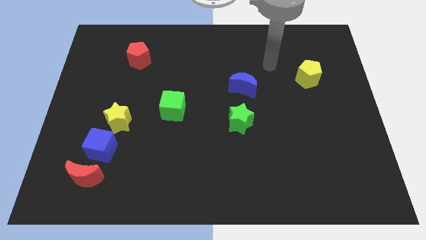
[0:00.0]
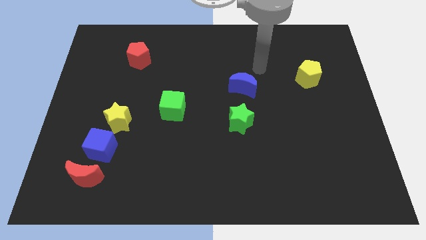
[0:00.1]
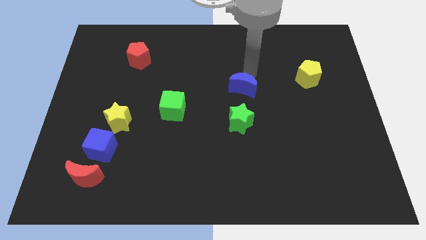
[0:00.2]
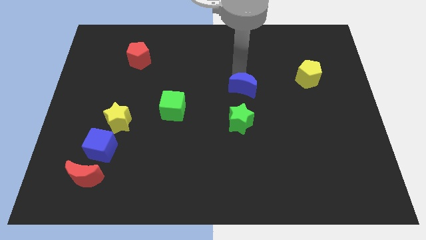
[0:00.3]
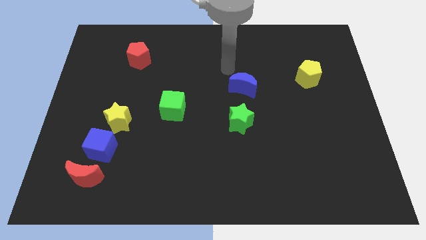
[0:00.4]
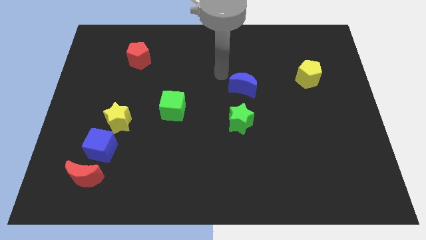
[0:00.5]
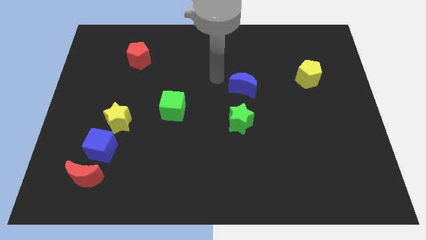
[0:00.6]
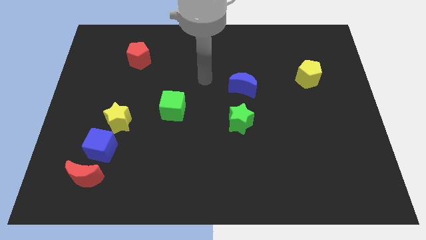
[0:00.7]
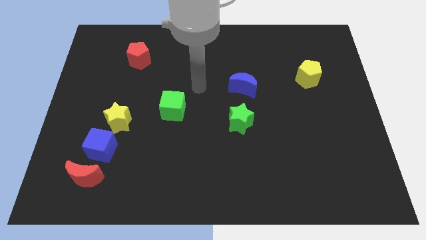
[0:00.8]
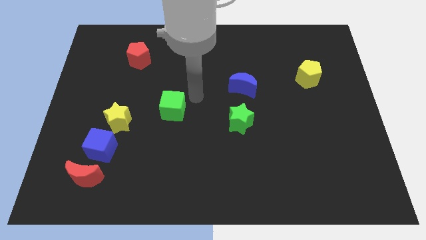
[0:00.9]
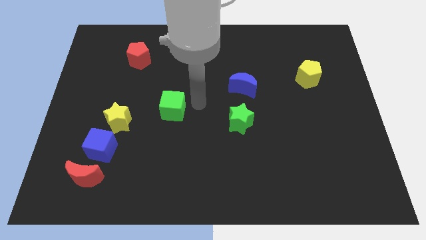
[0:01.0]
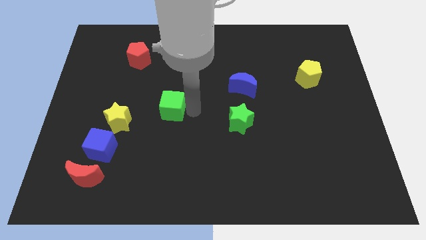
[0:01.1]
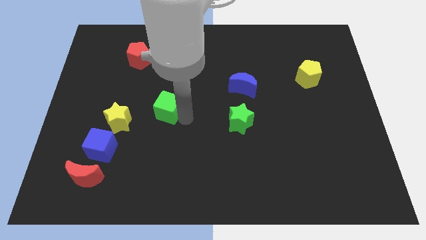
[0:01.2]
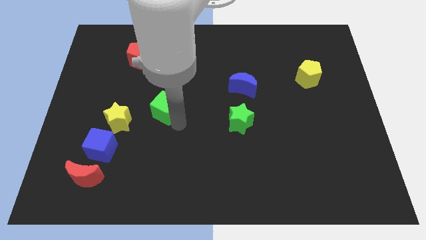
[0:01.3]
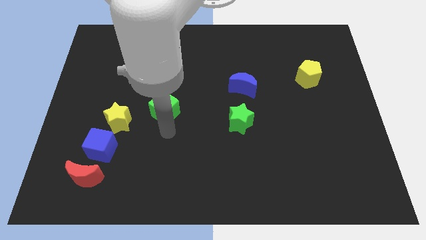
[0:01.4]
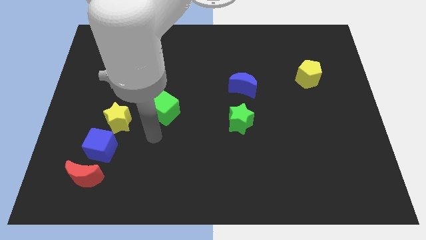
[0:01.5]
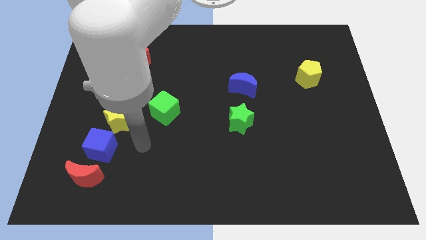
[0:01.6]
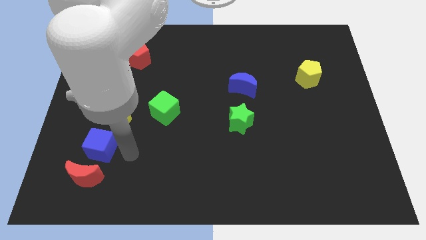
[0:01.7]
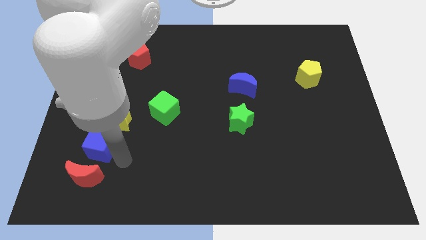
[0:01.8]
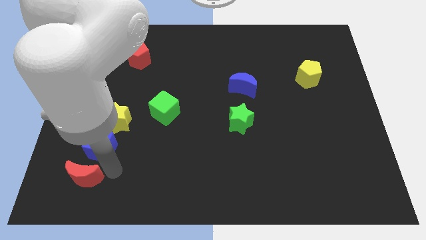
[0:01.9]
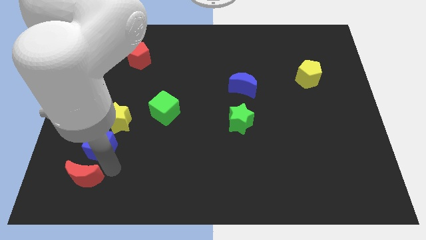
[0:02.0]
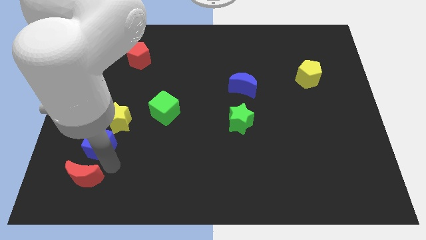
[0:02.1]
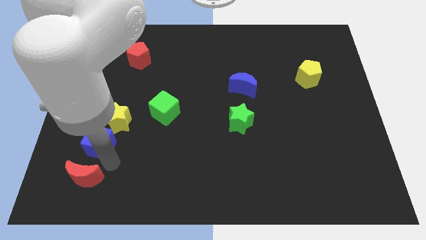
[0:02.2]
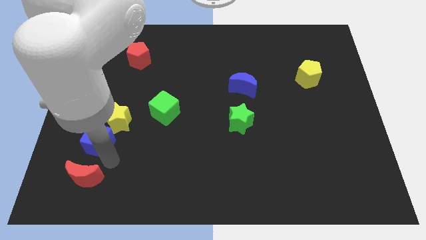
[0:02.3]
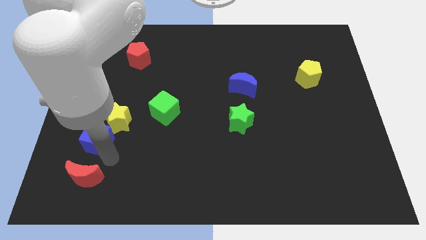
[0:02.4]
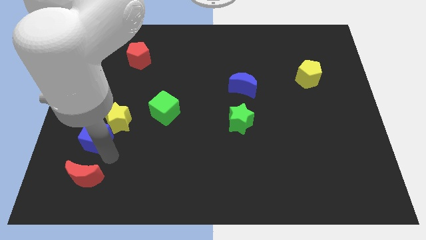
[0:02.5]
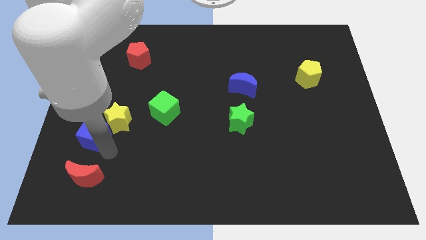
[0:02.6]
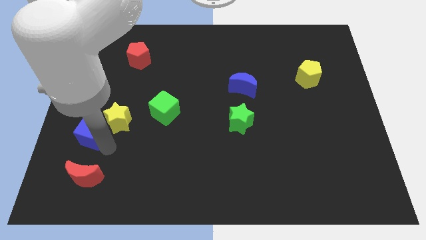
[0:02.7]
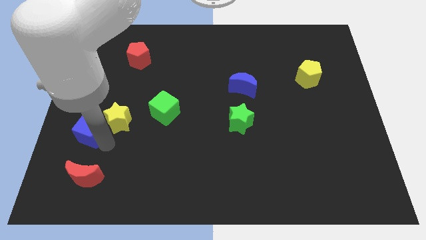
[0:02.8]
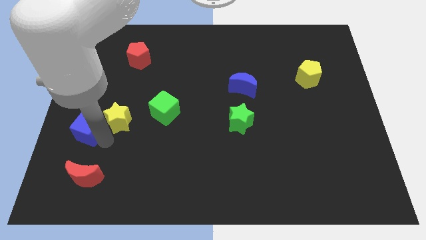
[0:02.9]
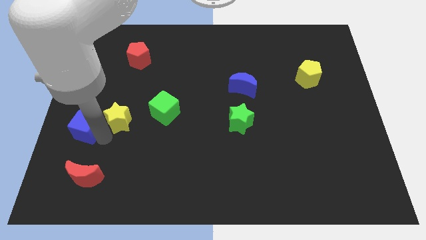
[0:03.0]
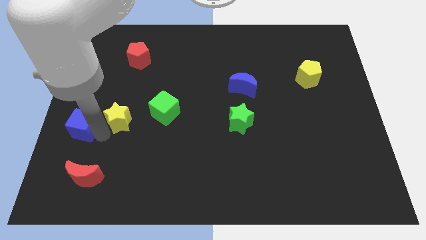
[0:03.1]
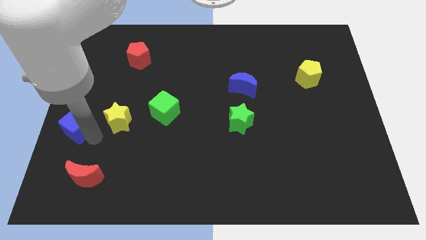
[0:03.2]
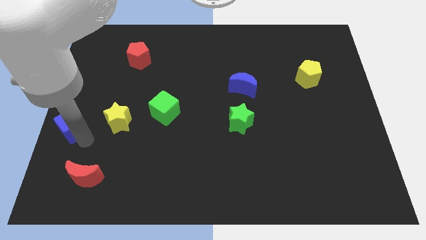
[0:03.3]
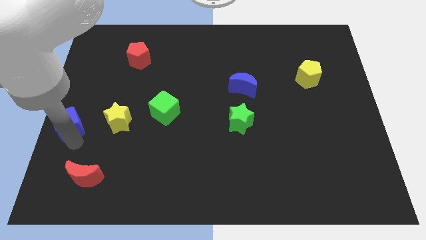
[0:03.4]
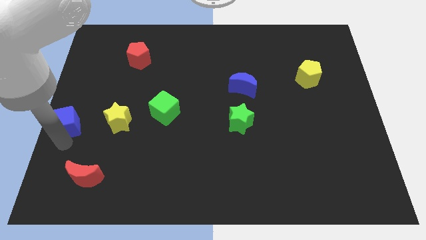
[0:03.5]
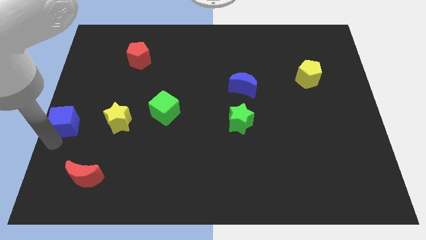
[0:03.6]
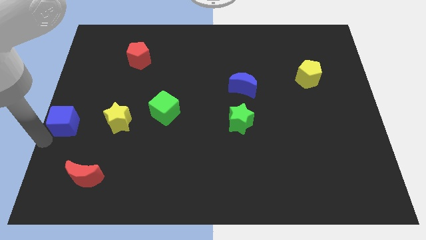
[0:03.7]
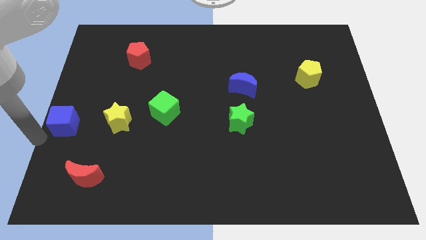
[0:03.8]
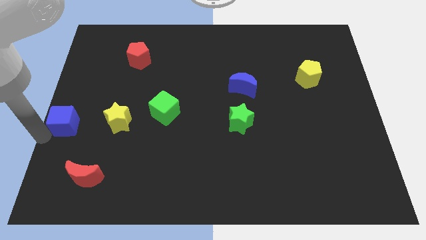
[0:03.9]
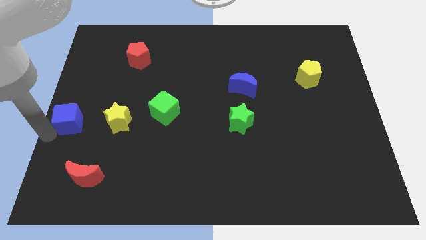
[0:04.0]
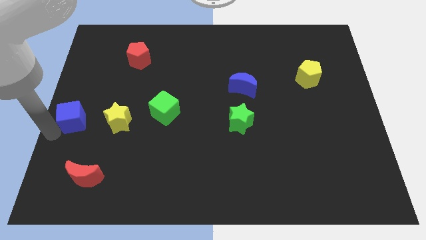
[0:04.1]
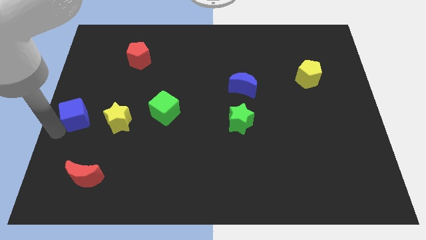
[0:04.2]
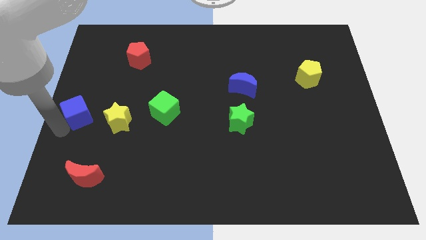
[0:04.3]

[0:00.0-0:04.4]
slightly move the blue cube upwards

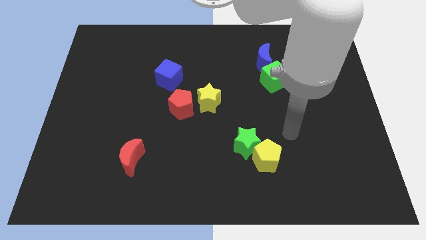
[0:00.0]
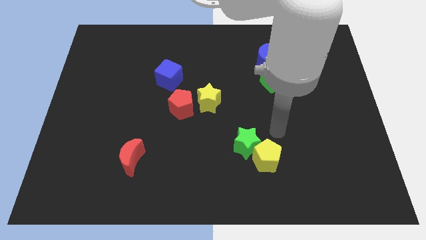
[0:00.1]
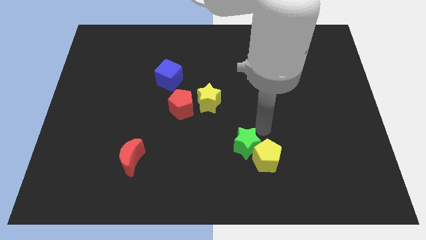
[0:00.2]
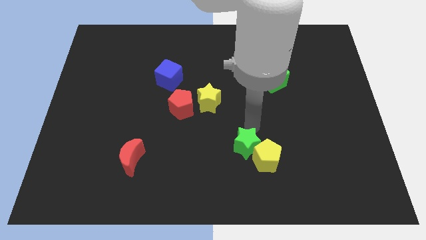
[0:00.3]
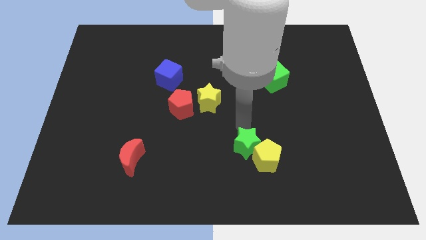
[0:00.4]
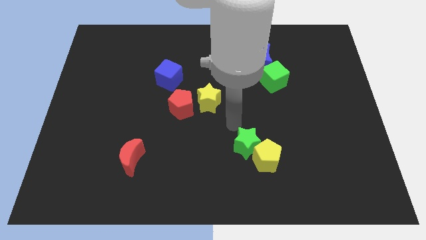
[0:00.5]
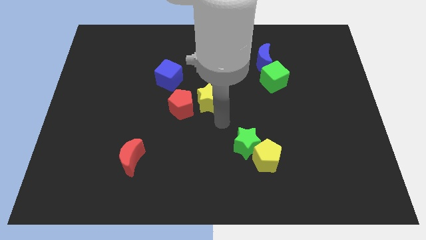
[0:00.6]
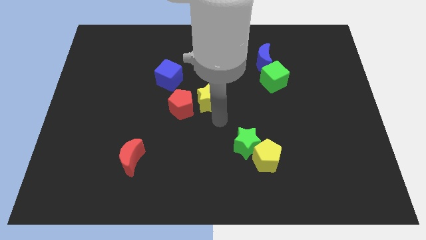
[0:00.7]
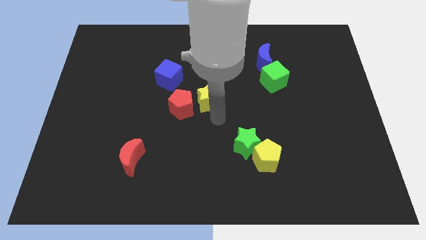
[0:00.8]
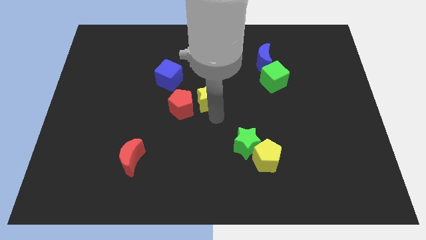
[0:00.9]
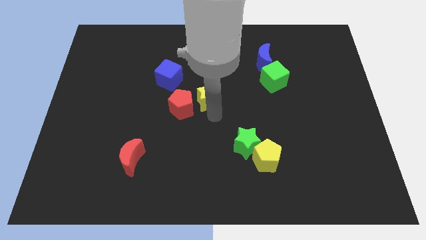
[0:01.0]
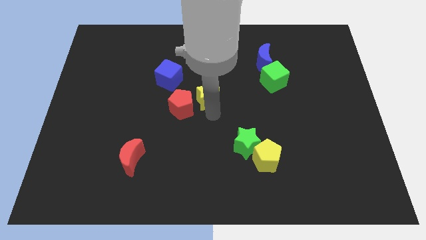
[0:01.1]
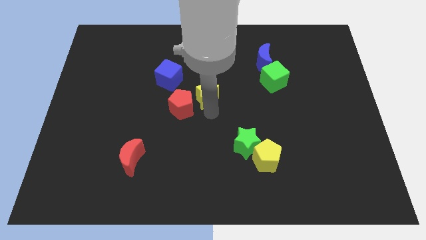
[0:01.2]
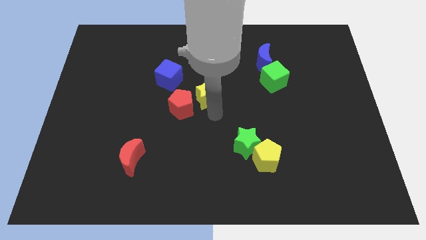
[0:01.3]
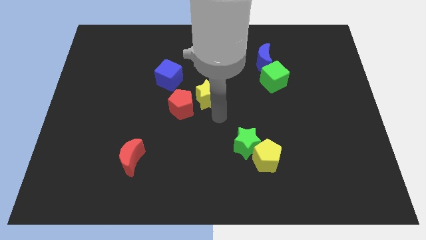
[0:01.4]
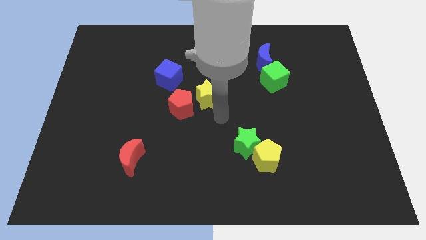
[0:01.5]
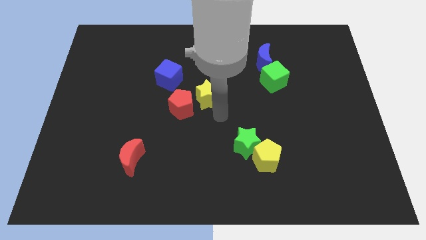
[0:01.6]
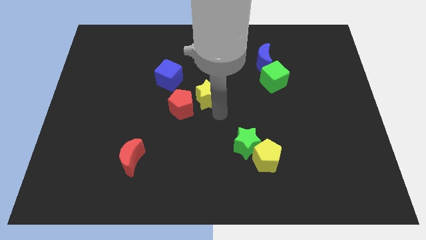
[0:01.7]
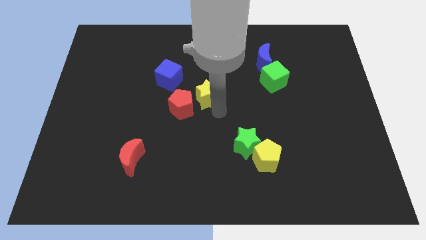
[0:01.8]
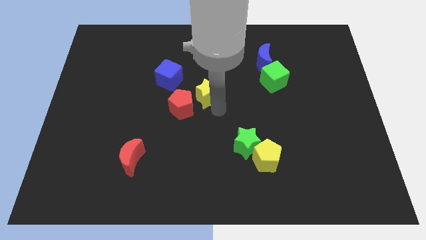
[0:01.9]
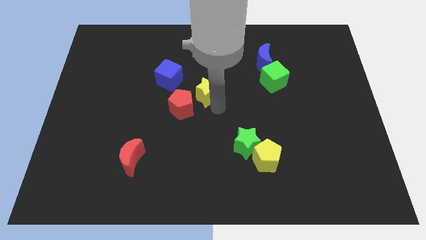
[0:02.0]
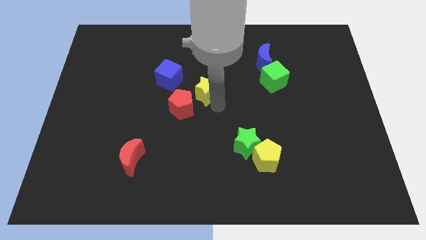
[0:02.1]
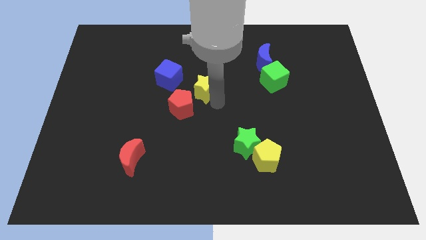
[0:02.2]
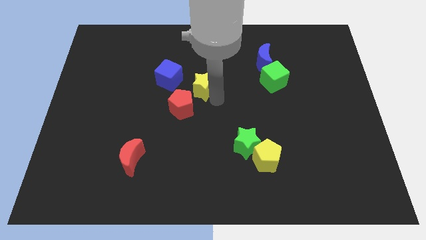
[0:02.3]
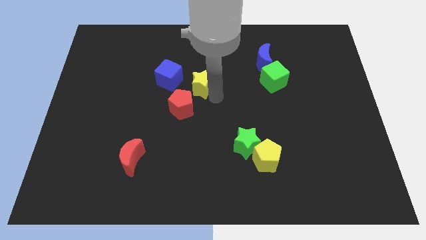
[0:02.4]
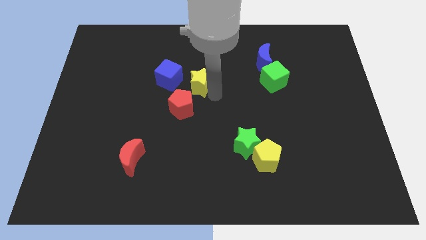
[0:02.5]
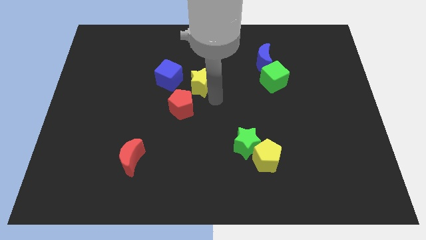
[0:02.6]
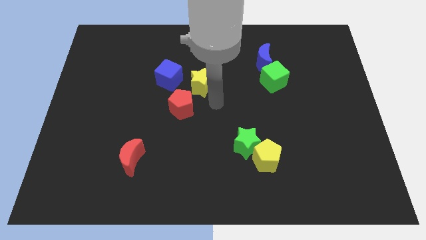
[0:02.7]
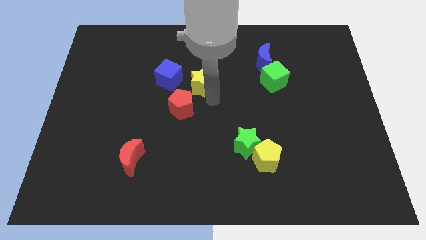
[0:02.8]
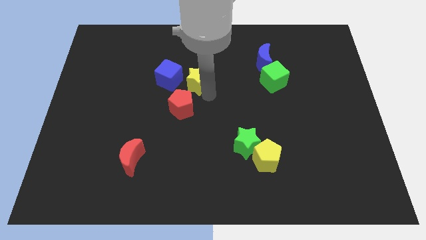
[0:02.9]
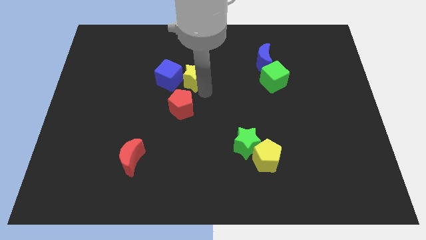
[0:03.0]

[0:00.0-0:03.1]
push the yellow star upwards and to the left a little bit

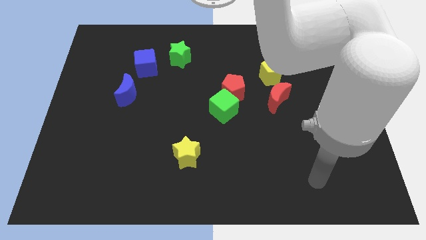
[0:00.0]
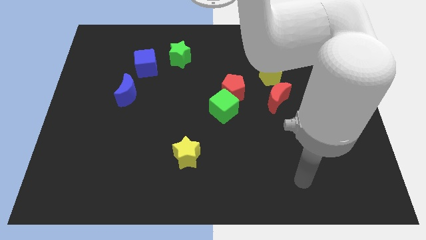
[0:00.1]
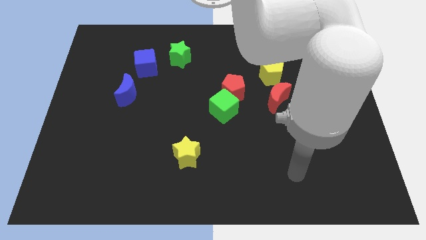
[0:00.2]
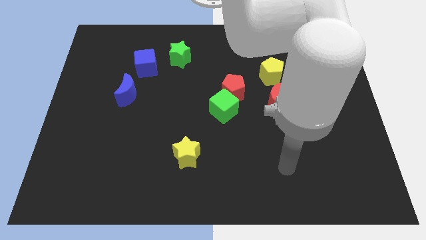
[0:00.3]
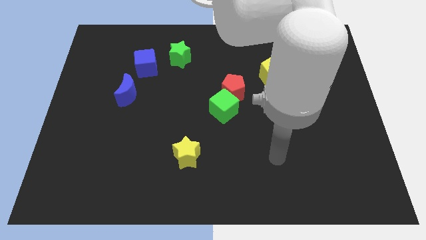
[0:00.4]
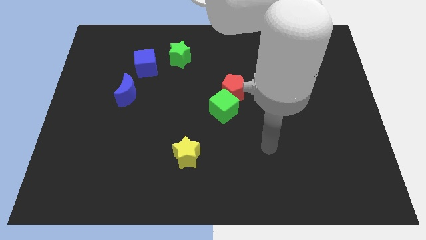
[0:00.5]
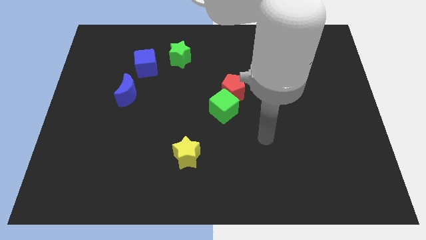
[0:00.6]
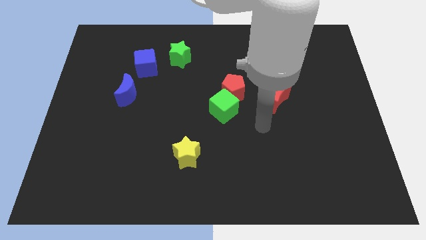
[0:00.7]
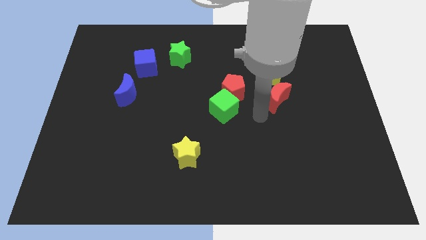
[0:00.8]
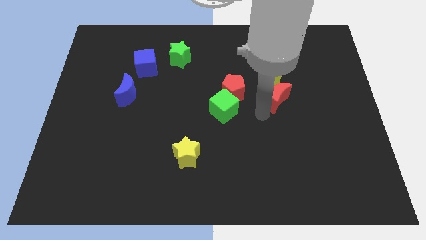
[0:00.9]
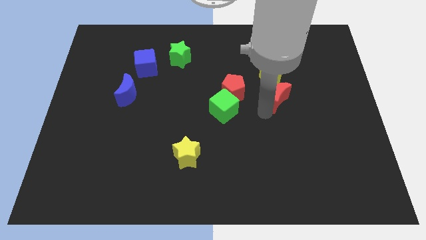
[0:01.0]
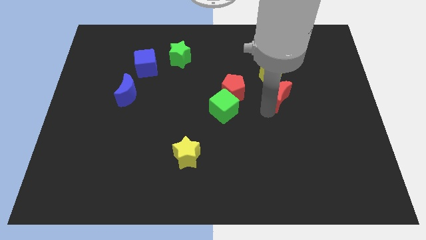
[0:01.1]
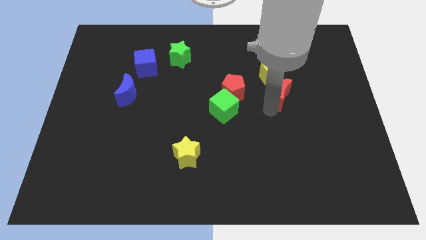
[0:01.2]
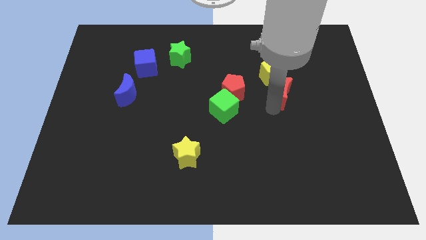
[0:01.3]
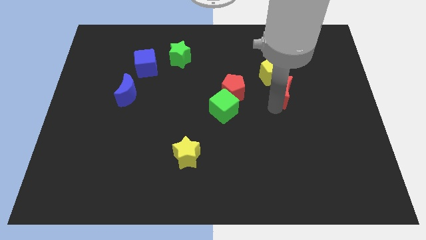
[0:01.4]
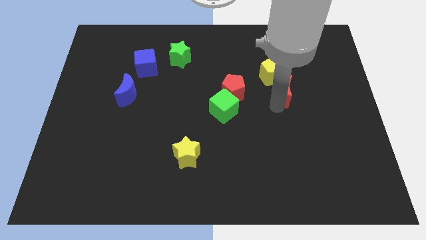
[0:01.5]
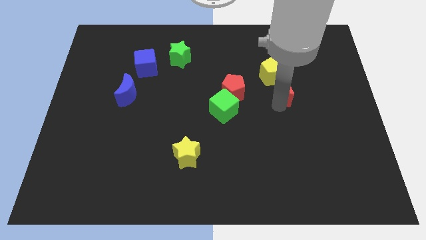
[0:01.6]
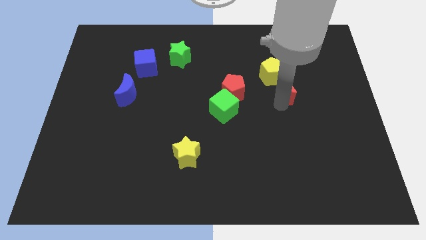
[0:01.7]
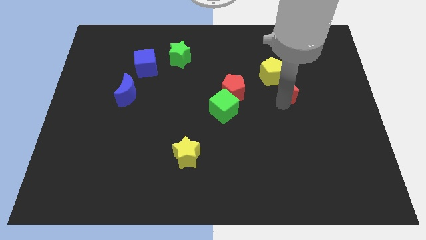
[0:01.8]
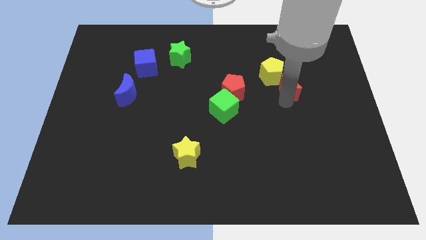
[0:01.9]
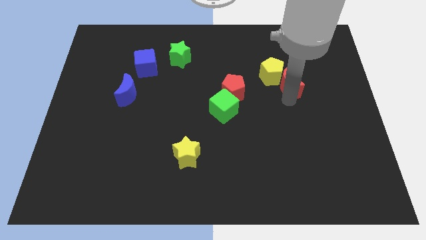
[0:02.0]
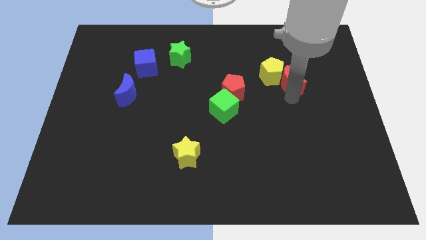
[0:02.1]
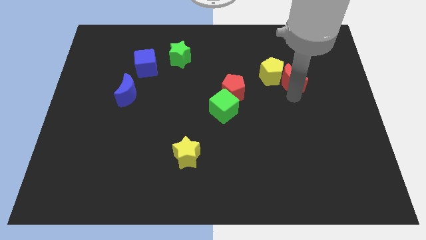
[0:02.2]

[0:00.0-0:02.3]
slide the red moon slightly diagonally upwards and to the right
